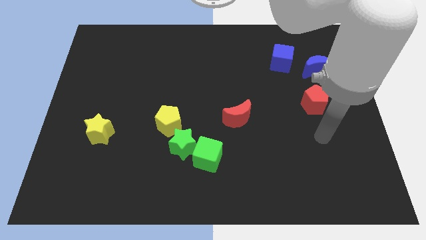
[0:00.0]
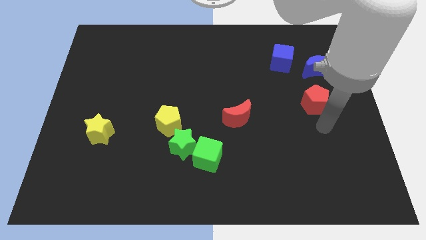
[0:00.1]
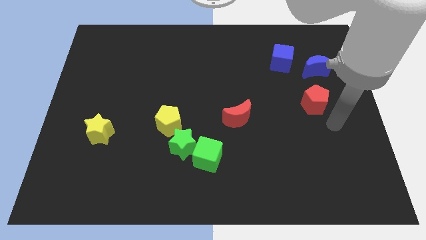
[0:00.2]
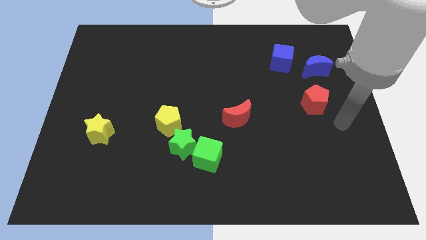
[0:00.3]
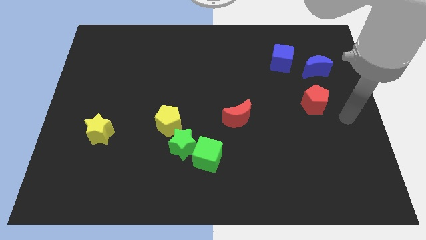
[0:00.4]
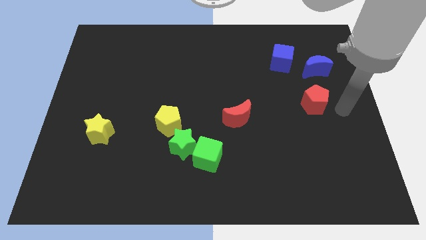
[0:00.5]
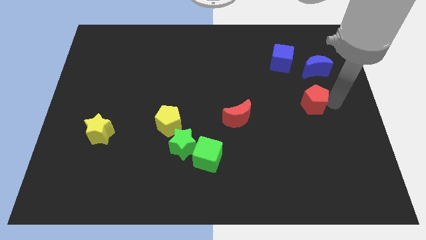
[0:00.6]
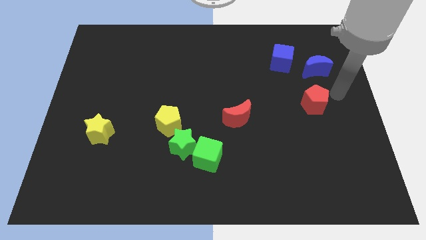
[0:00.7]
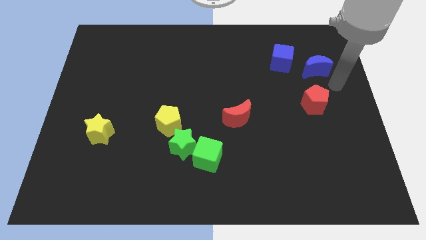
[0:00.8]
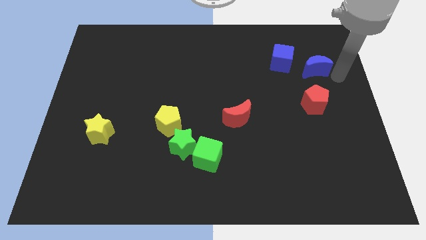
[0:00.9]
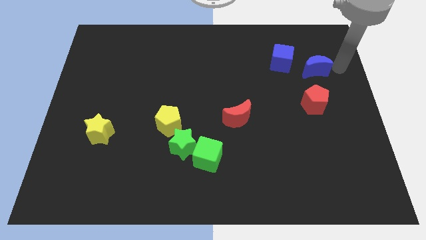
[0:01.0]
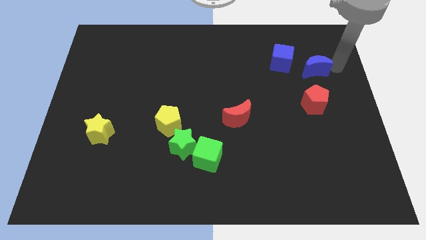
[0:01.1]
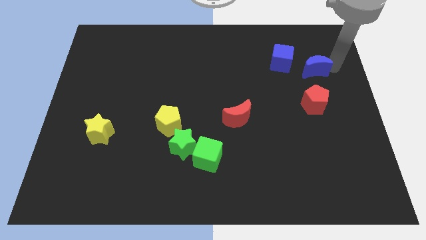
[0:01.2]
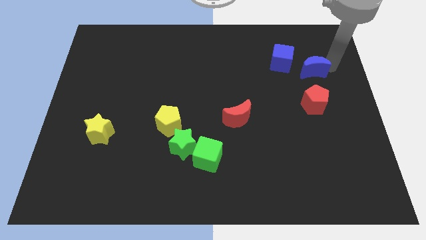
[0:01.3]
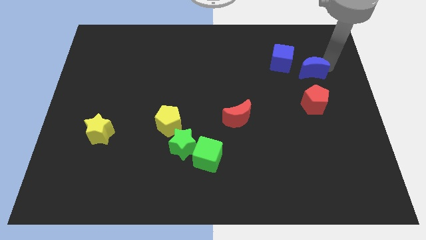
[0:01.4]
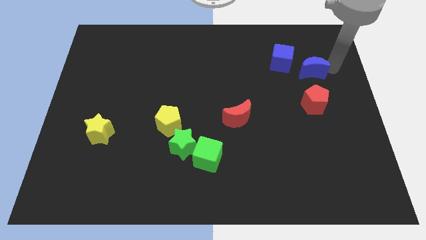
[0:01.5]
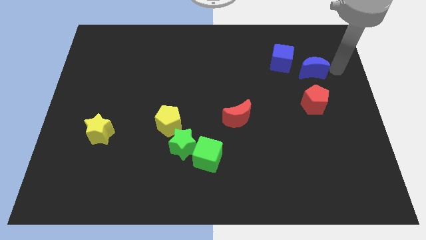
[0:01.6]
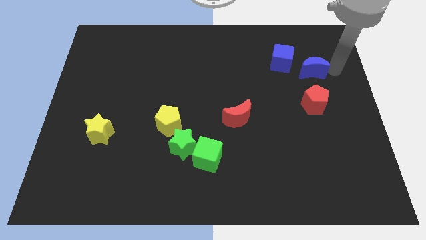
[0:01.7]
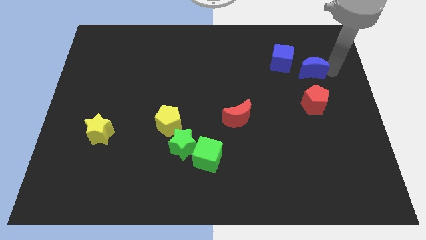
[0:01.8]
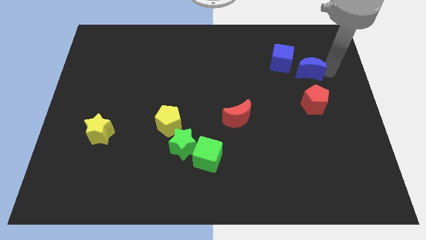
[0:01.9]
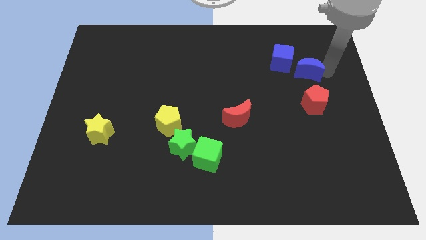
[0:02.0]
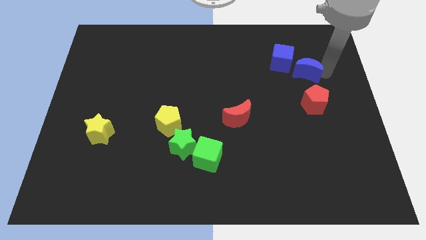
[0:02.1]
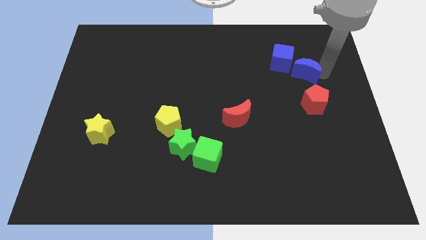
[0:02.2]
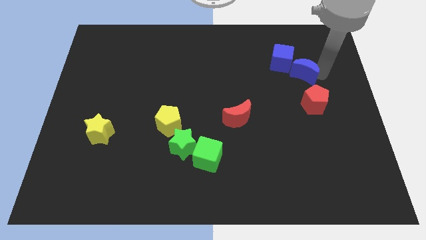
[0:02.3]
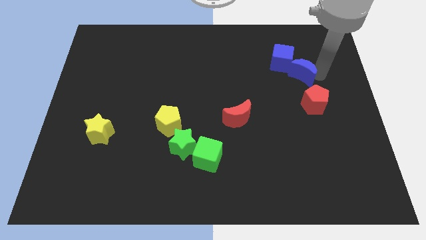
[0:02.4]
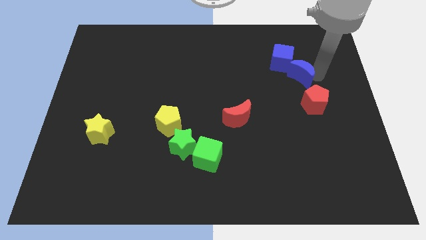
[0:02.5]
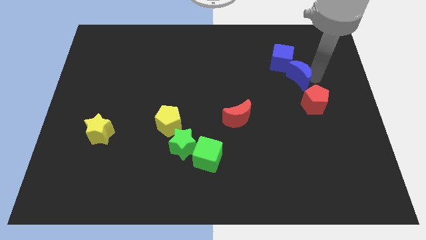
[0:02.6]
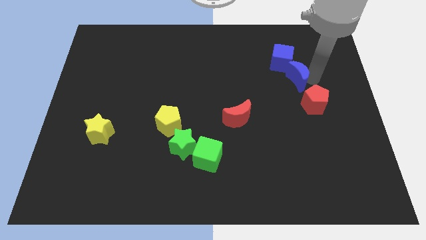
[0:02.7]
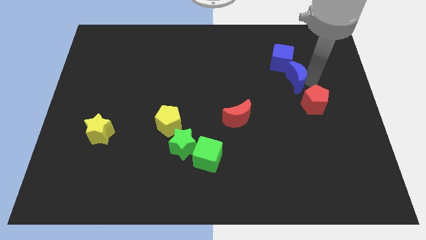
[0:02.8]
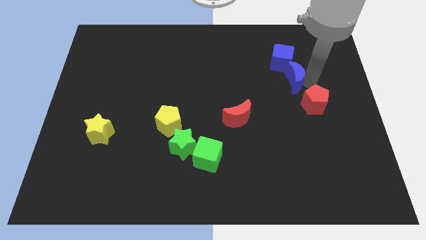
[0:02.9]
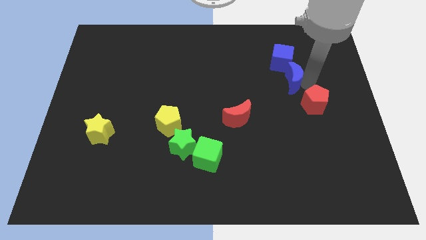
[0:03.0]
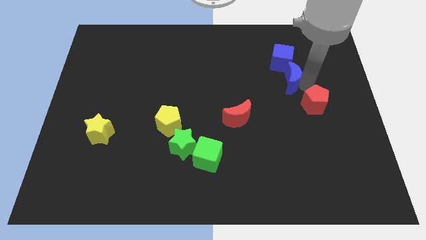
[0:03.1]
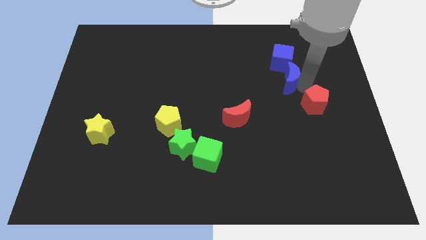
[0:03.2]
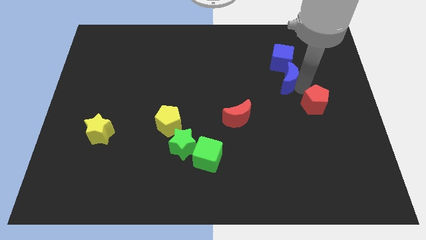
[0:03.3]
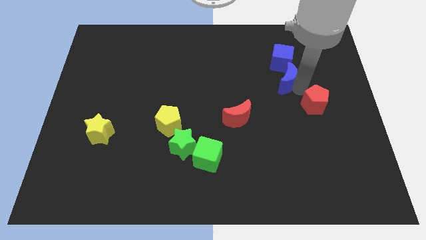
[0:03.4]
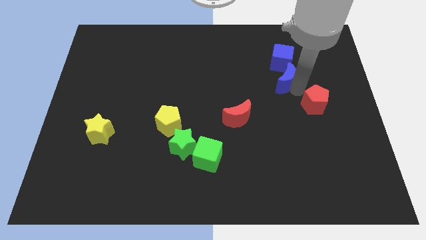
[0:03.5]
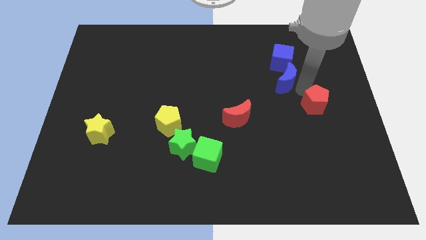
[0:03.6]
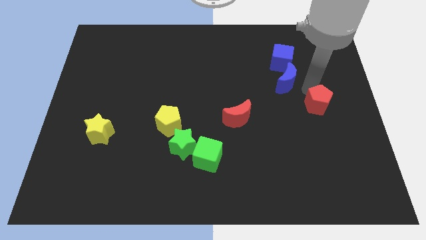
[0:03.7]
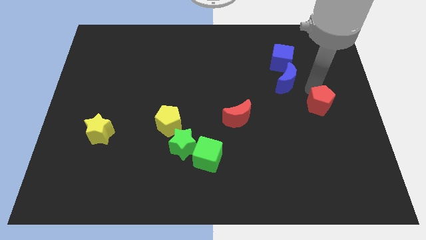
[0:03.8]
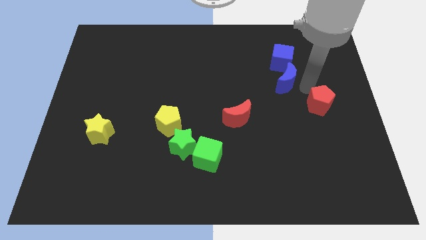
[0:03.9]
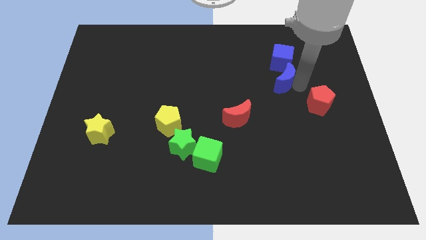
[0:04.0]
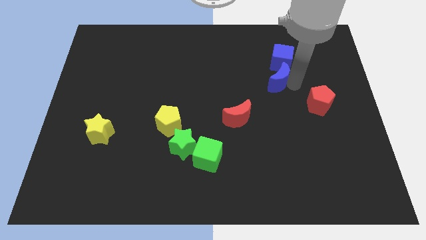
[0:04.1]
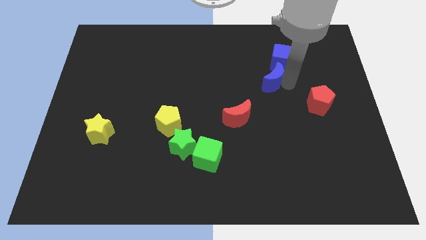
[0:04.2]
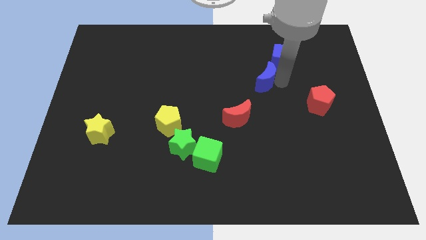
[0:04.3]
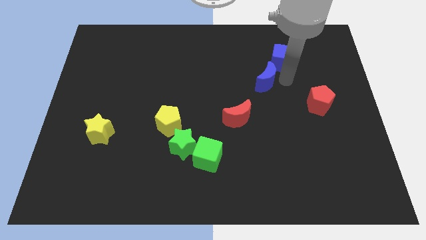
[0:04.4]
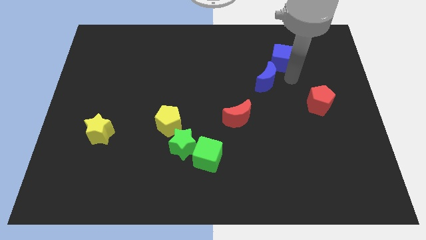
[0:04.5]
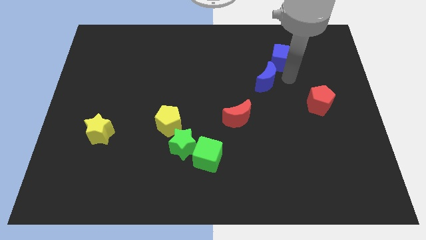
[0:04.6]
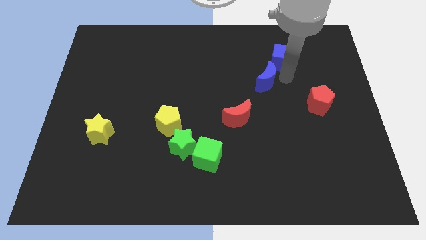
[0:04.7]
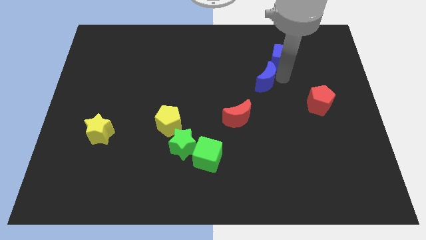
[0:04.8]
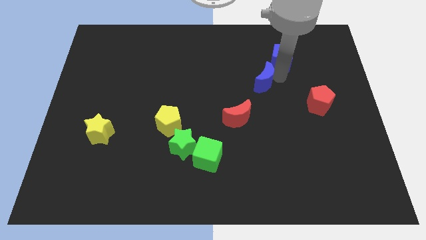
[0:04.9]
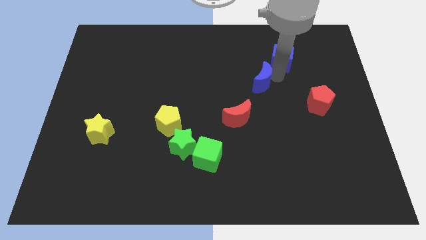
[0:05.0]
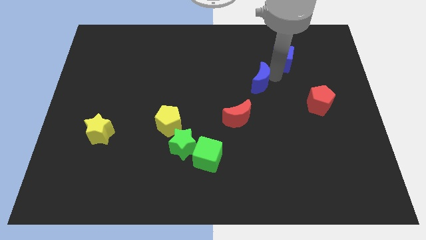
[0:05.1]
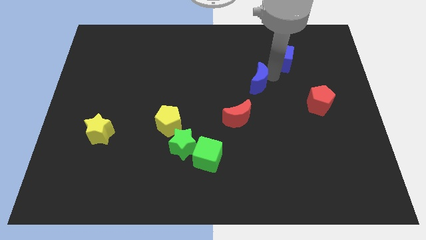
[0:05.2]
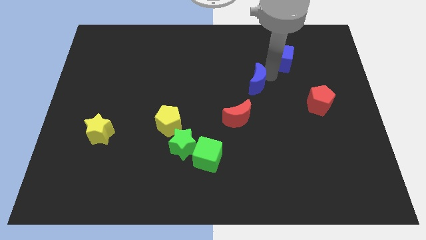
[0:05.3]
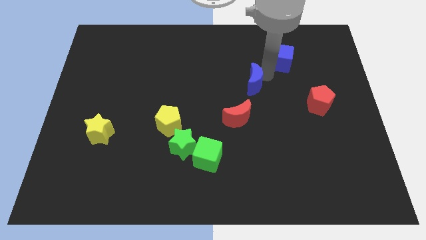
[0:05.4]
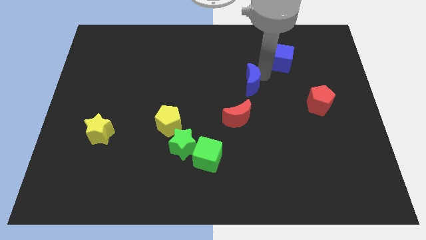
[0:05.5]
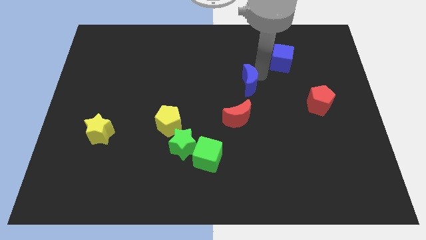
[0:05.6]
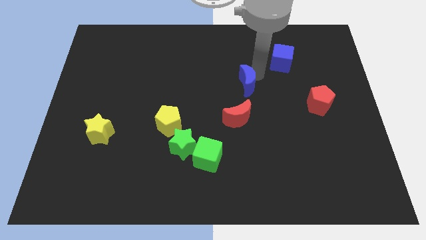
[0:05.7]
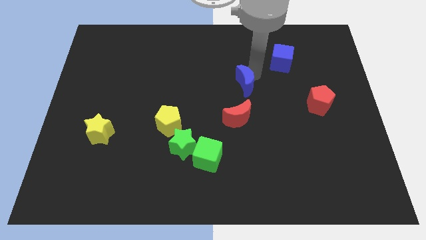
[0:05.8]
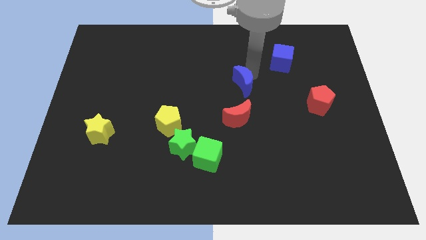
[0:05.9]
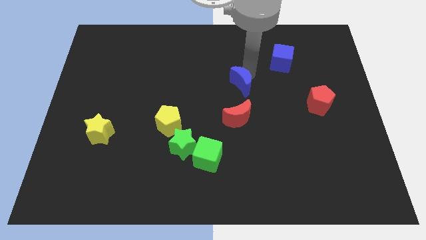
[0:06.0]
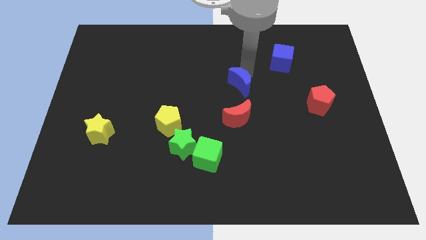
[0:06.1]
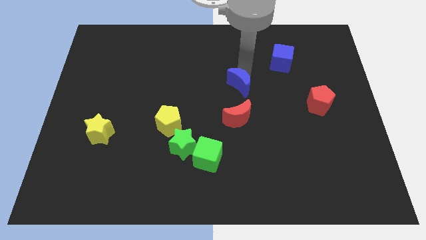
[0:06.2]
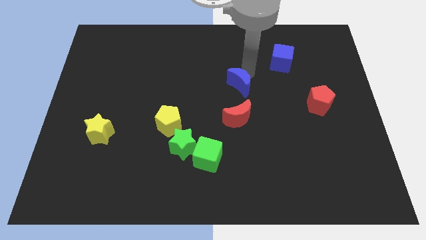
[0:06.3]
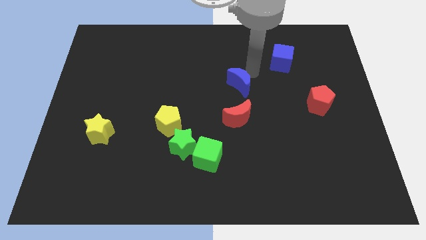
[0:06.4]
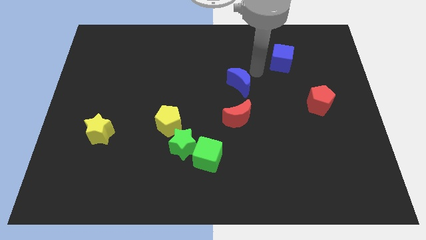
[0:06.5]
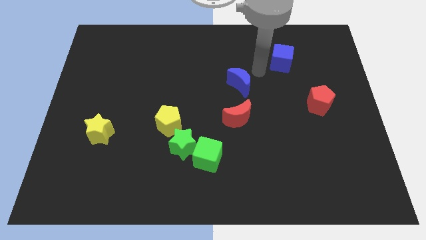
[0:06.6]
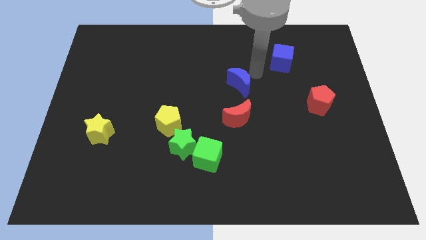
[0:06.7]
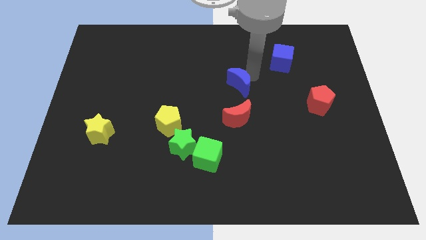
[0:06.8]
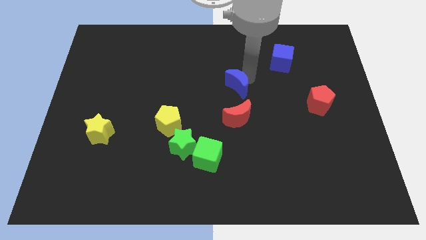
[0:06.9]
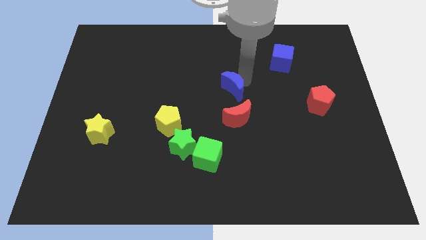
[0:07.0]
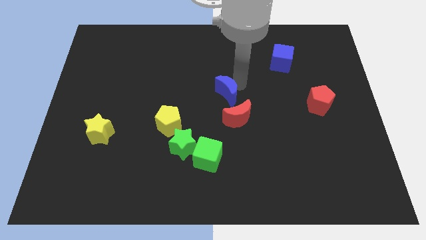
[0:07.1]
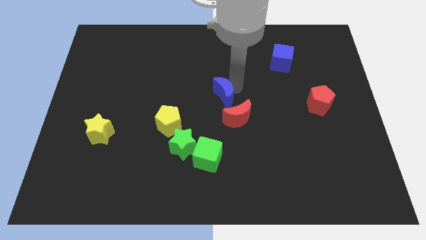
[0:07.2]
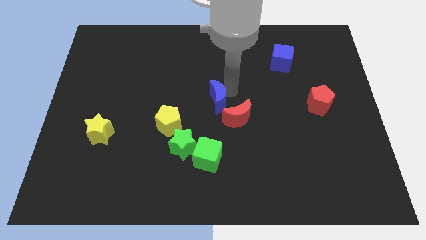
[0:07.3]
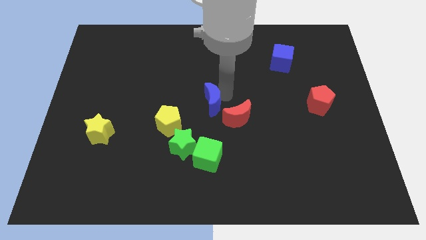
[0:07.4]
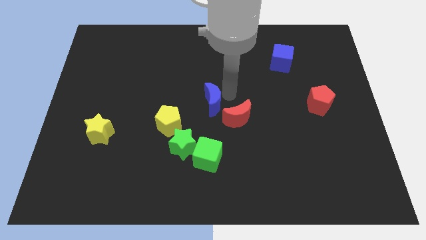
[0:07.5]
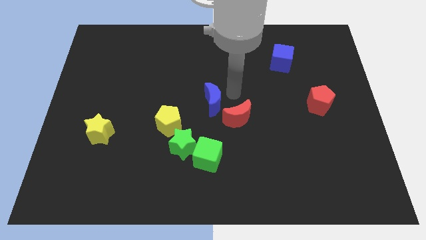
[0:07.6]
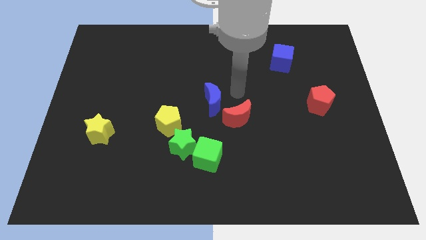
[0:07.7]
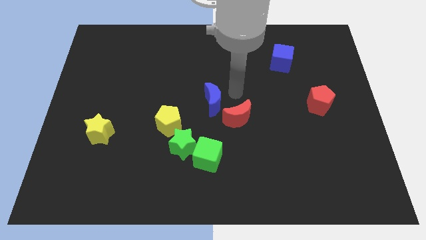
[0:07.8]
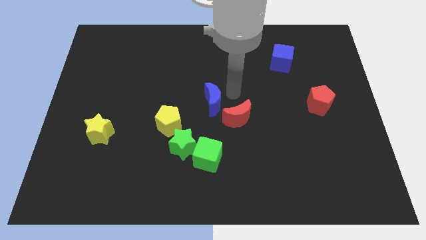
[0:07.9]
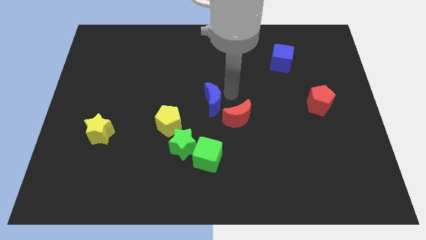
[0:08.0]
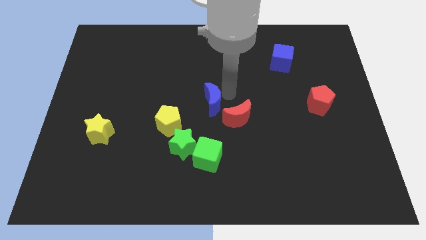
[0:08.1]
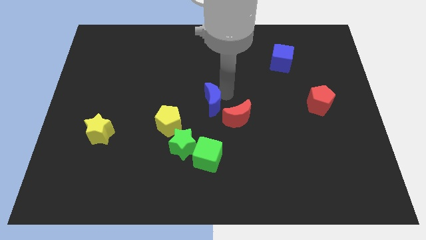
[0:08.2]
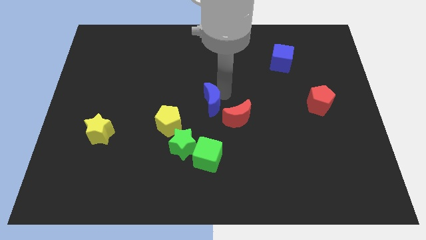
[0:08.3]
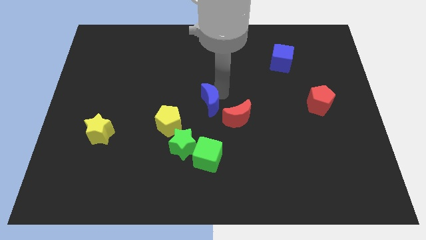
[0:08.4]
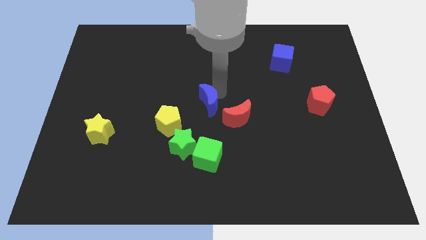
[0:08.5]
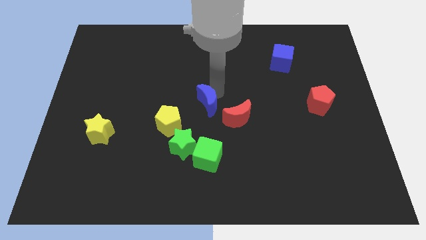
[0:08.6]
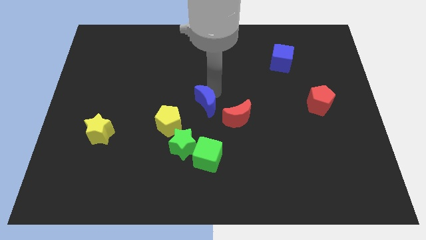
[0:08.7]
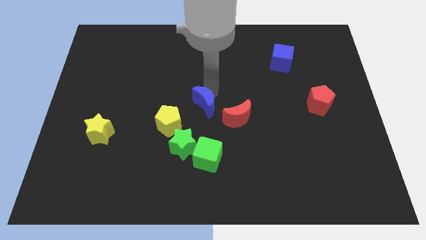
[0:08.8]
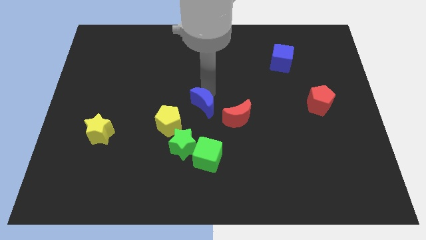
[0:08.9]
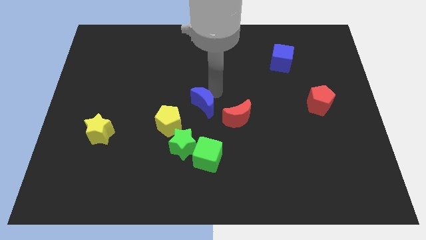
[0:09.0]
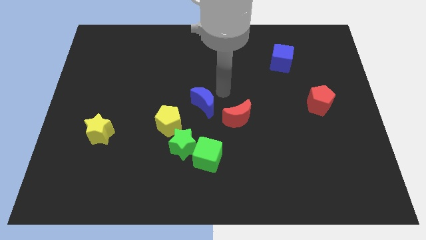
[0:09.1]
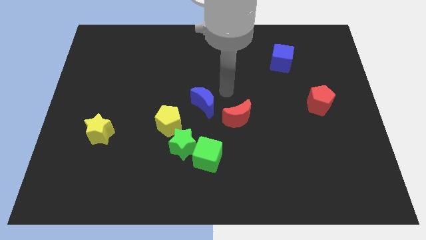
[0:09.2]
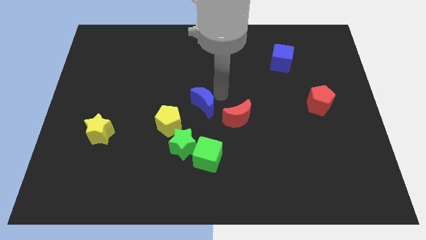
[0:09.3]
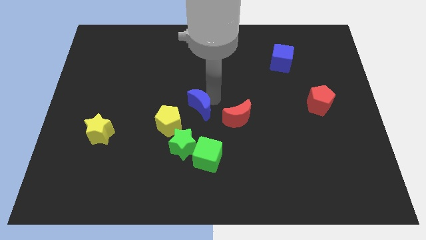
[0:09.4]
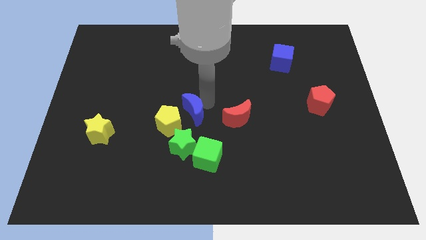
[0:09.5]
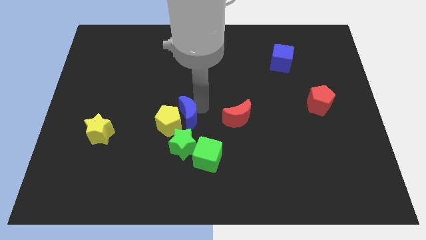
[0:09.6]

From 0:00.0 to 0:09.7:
push the blue moon close to the yellow pentagon
